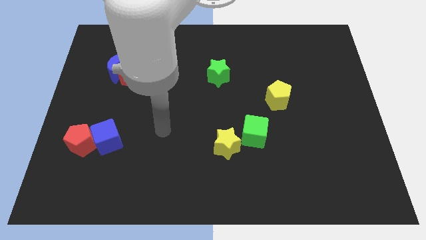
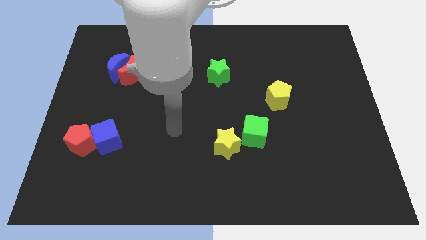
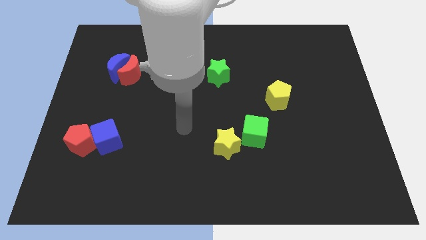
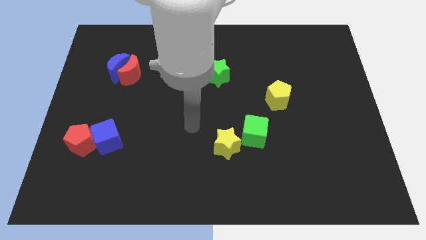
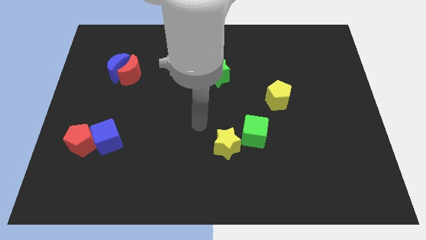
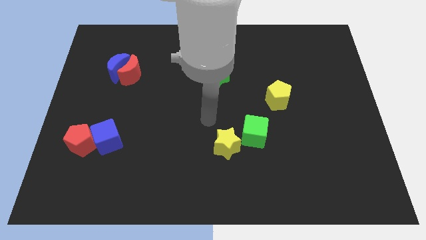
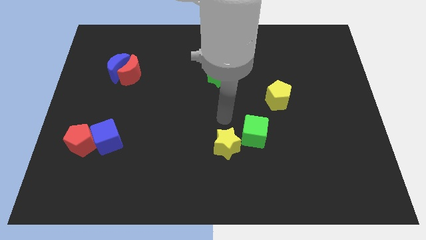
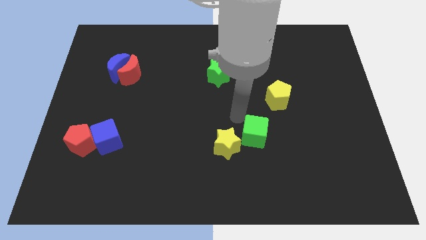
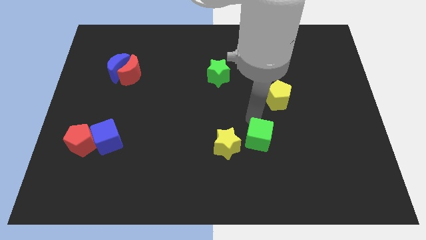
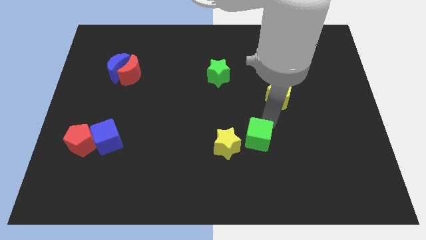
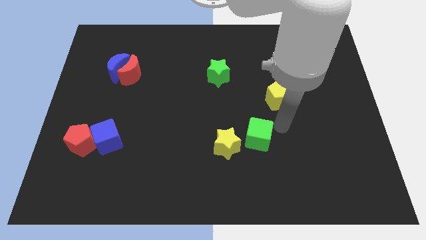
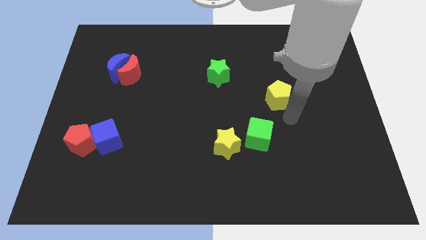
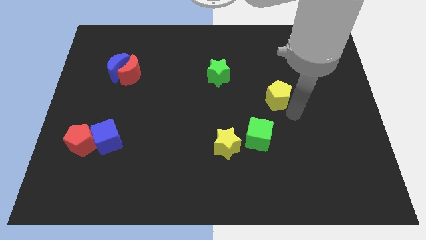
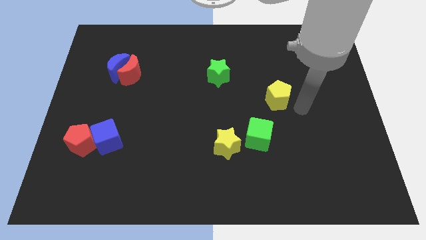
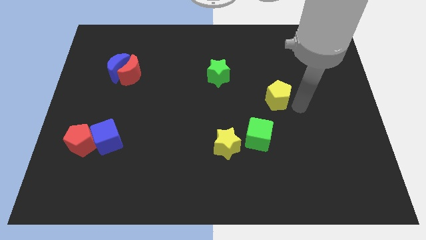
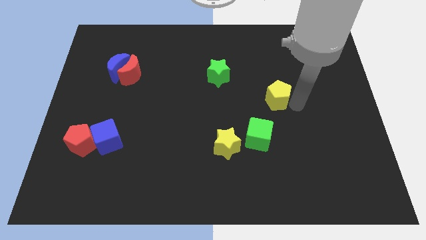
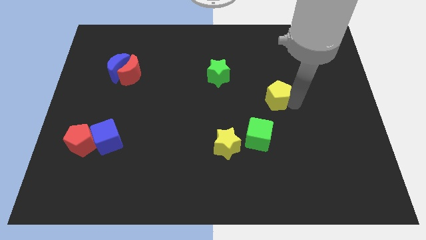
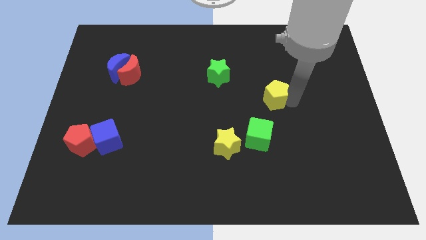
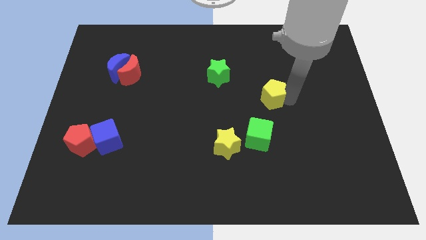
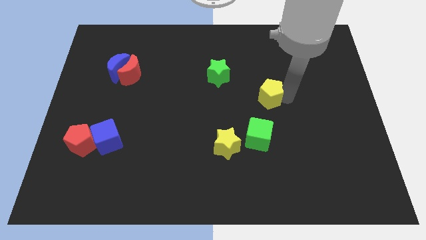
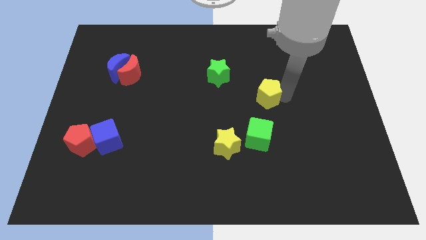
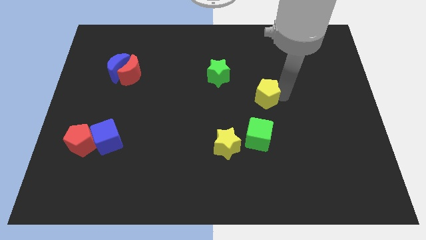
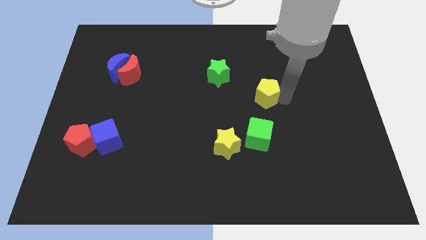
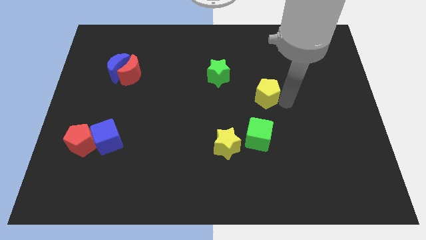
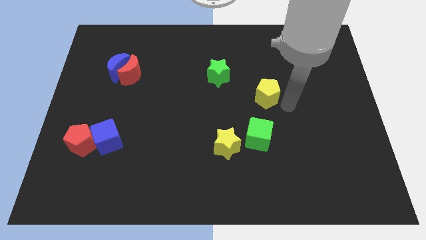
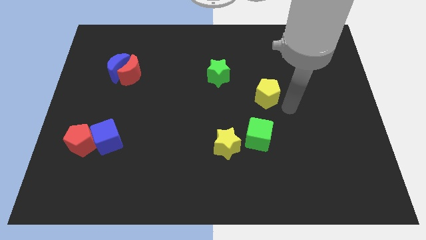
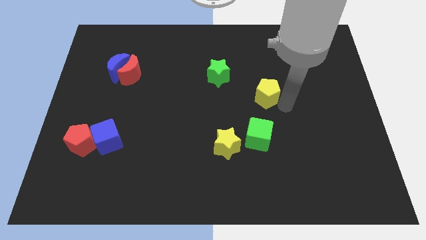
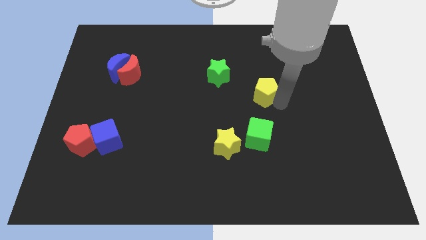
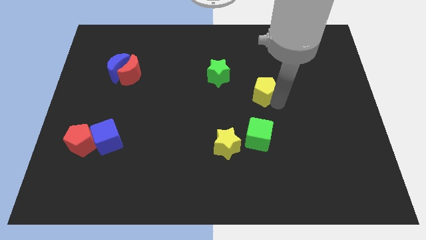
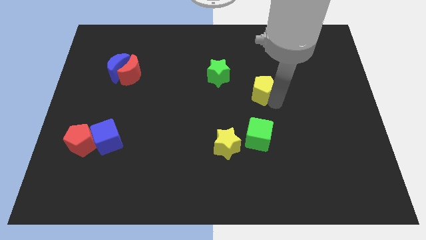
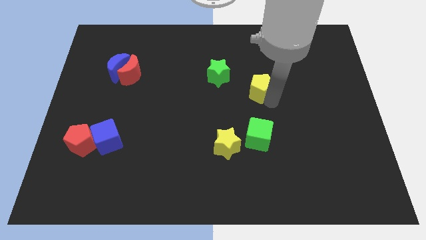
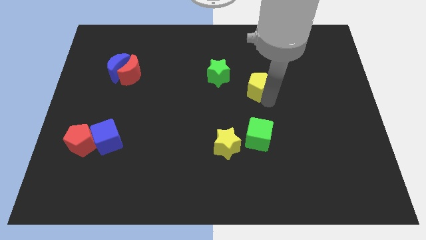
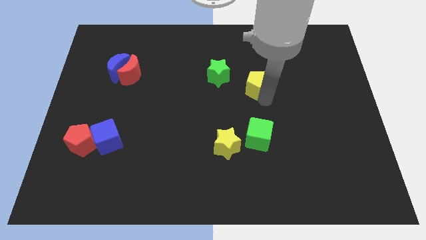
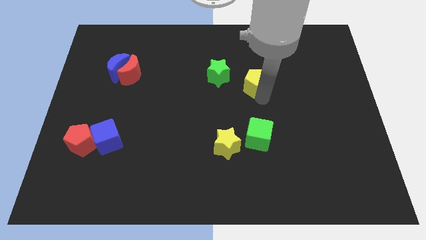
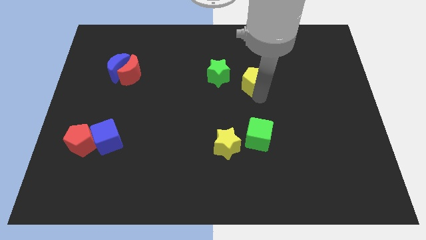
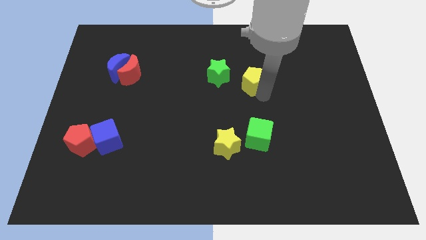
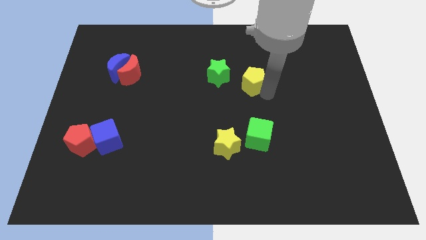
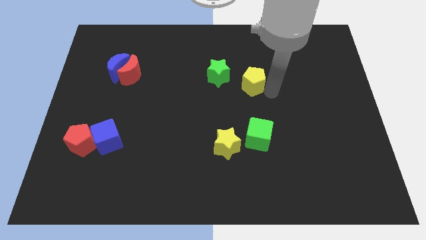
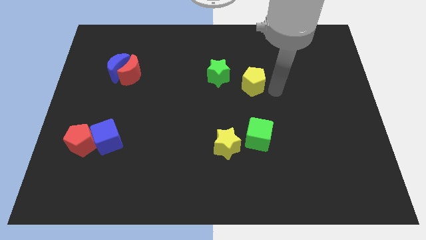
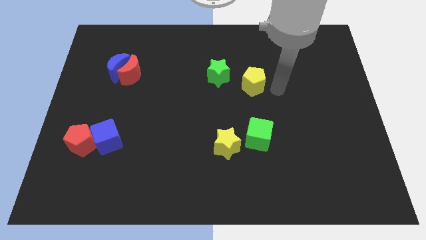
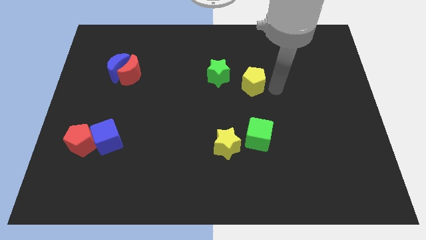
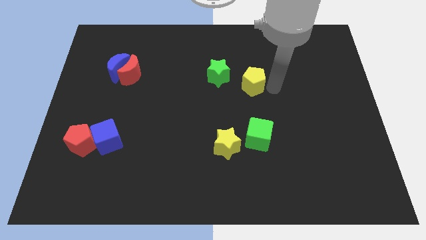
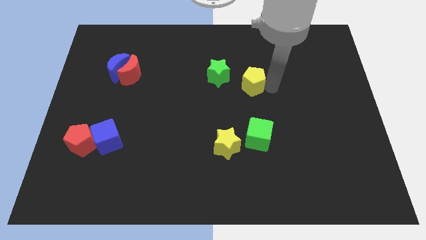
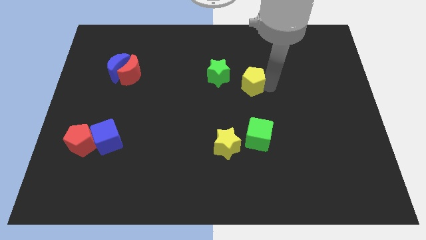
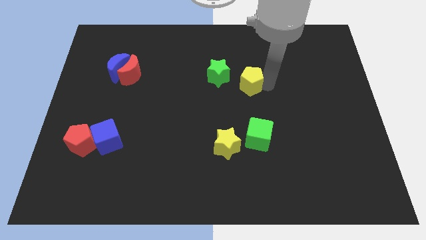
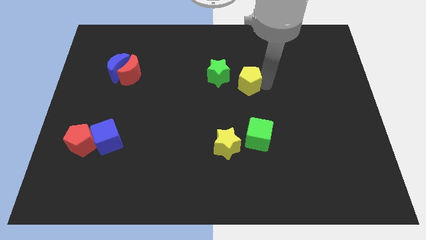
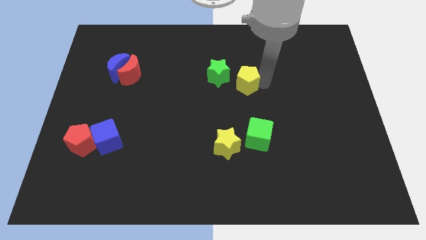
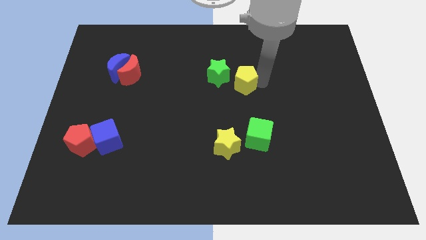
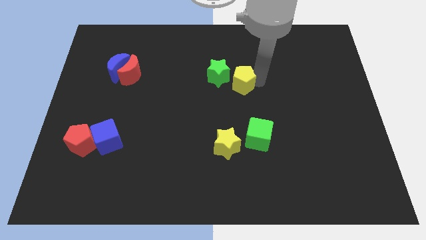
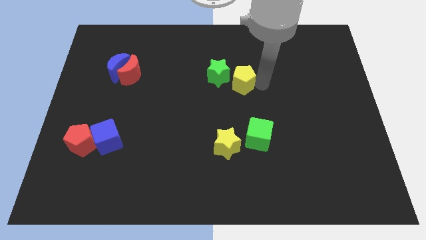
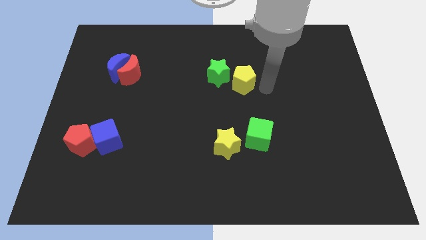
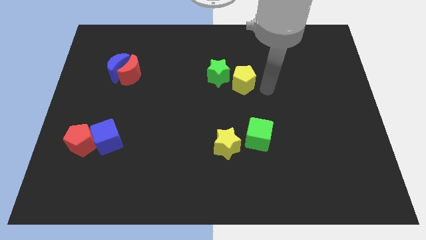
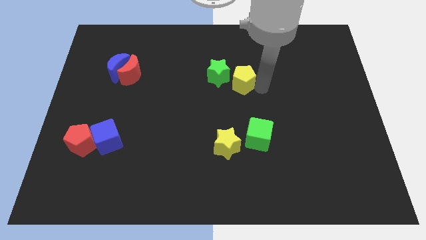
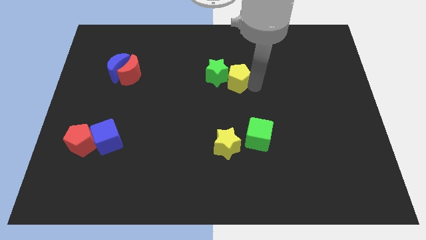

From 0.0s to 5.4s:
push the yellow pentagon close to the green star

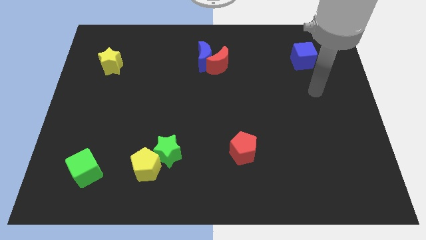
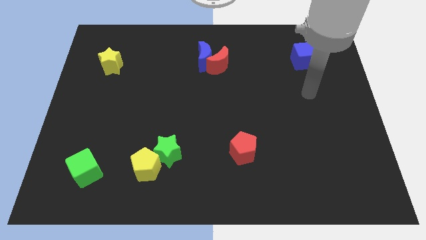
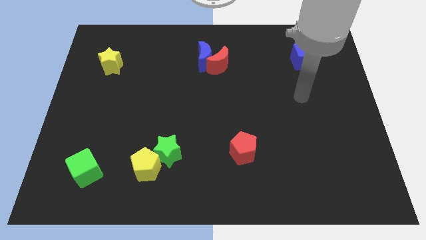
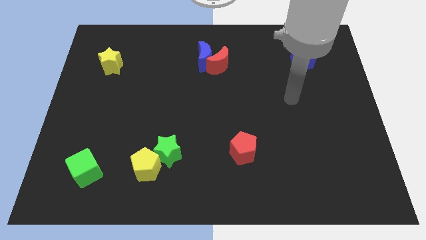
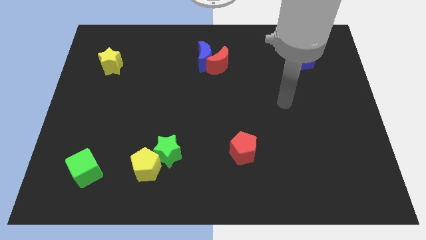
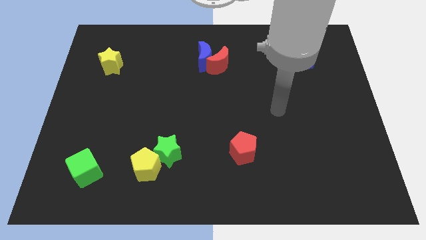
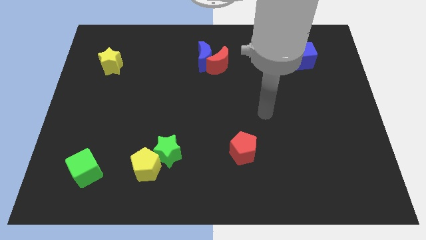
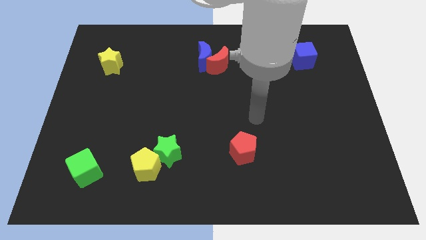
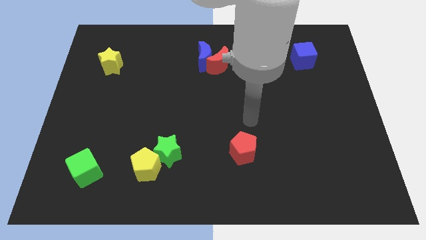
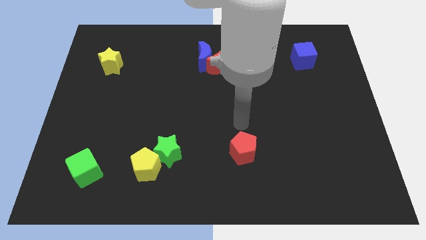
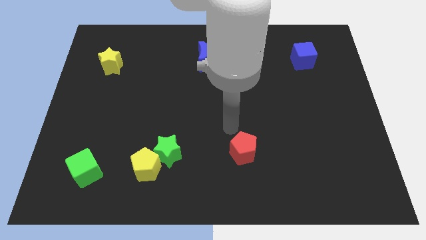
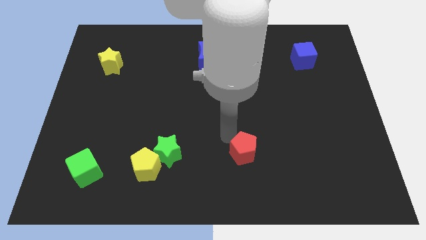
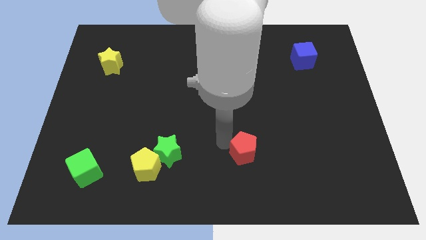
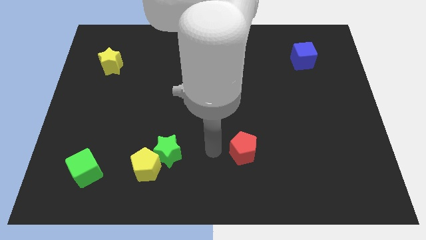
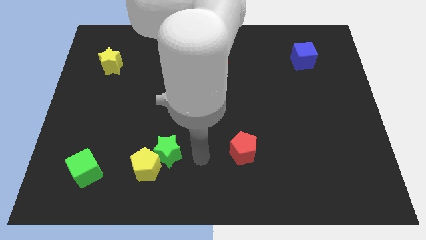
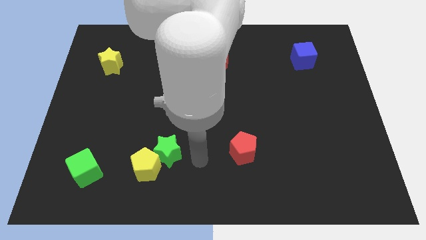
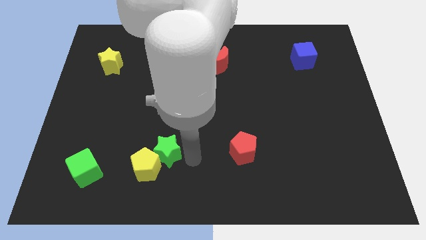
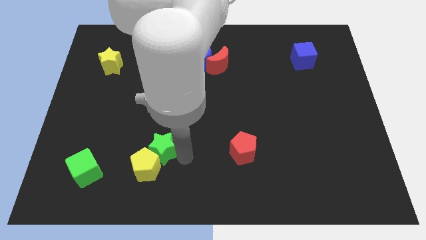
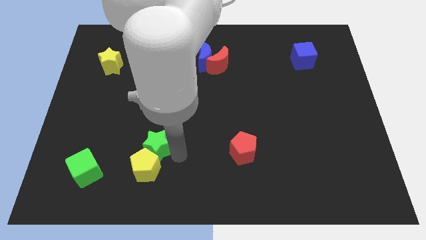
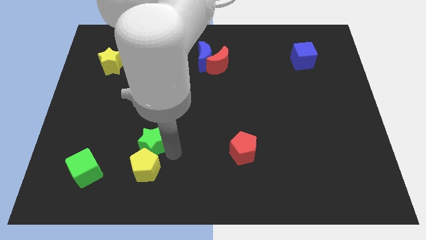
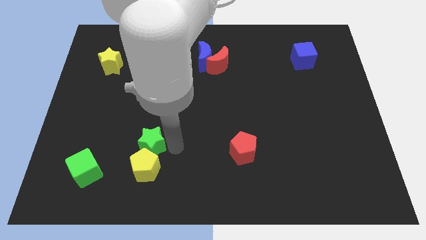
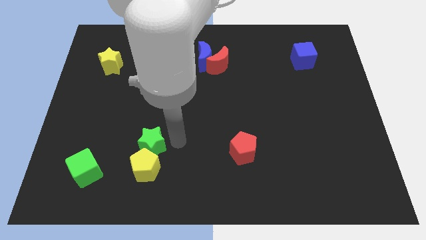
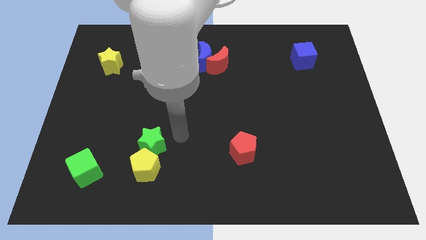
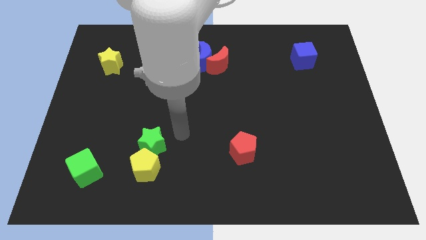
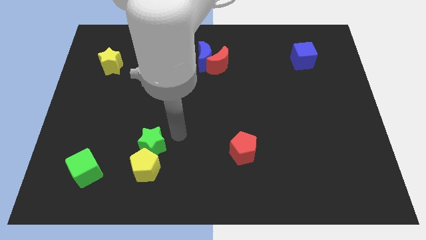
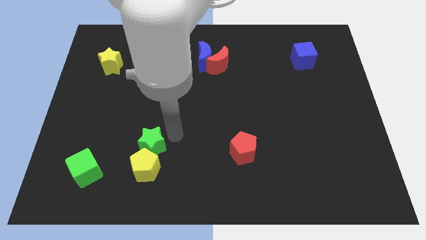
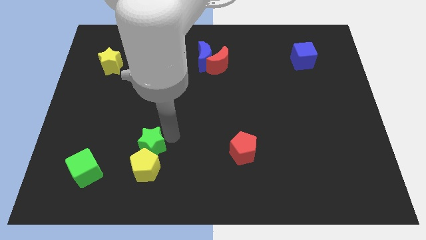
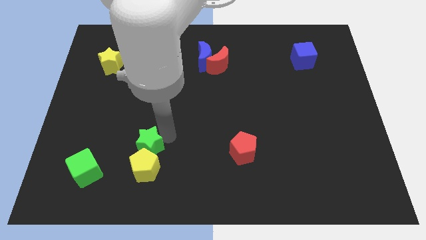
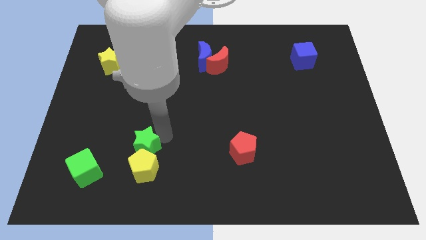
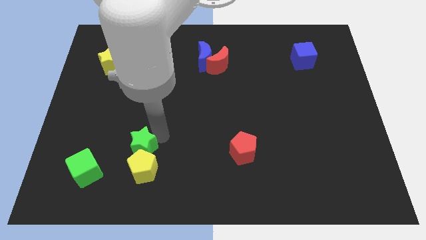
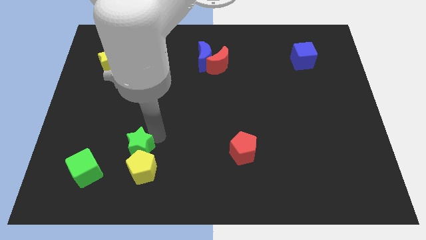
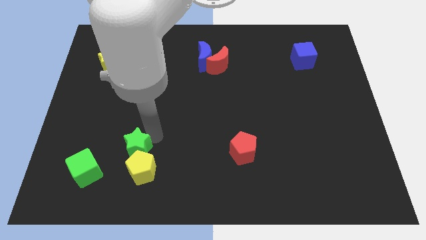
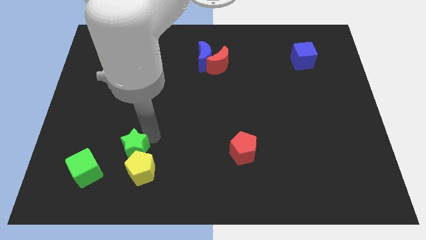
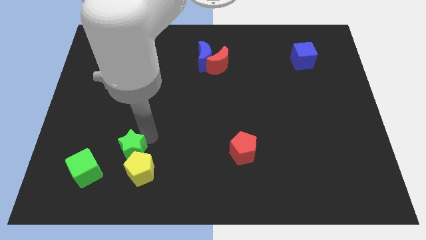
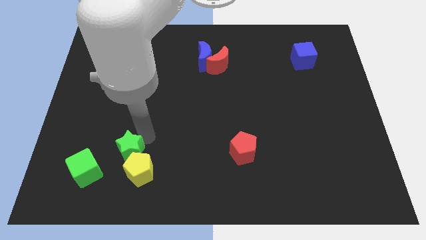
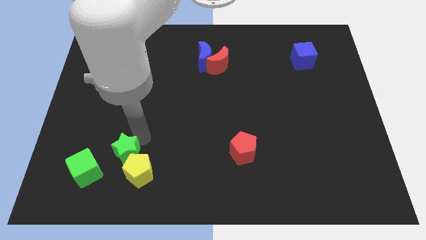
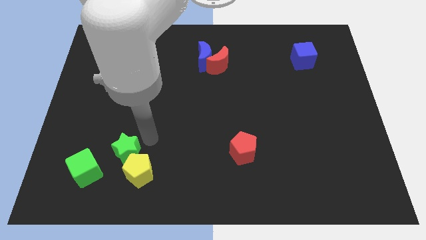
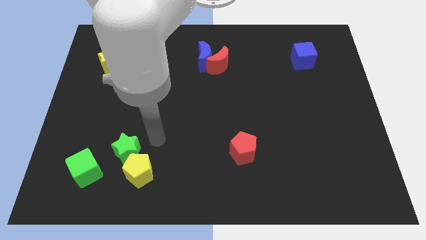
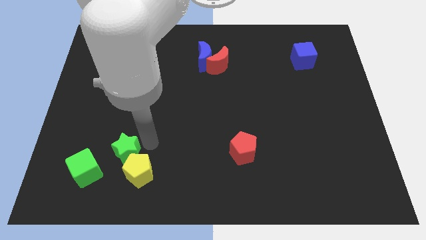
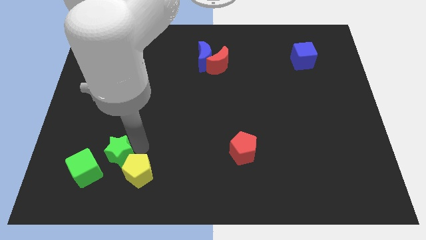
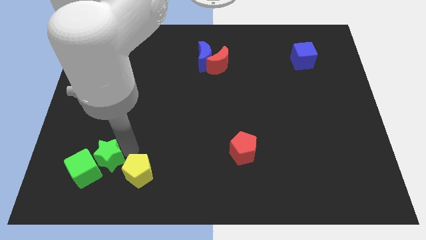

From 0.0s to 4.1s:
put the green star close to the green cube
